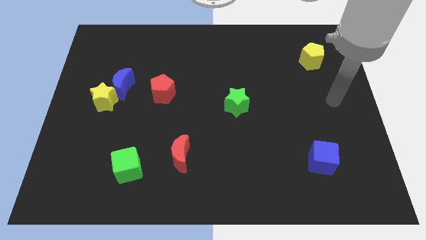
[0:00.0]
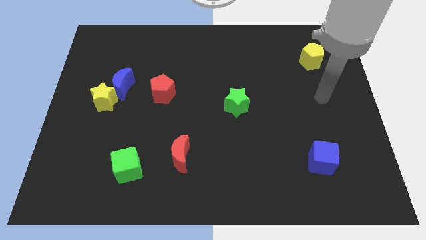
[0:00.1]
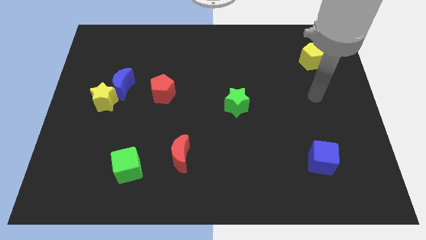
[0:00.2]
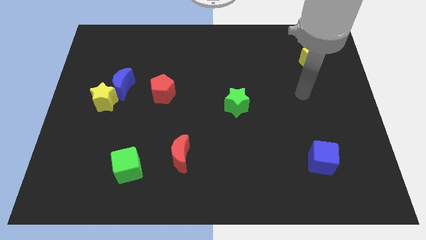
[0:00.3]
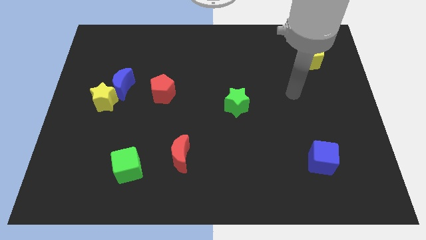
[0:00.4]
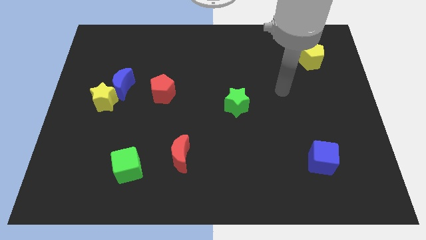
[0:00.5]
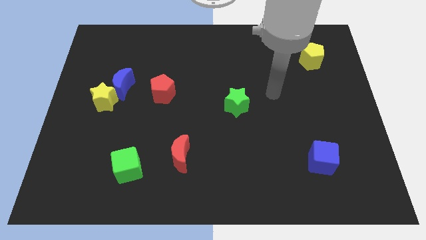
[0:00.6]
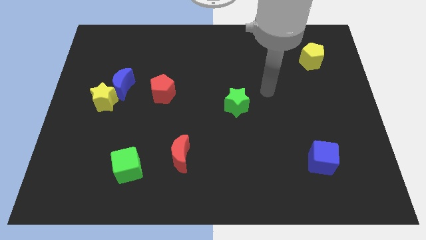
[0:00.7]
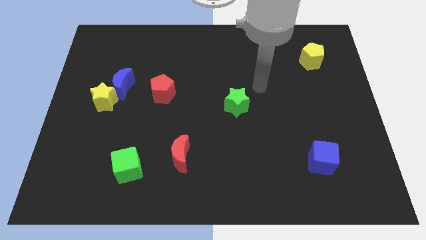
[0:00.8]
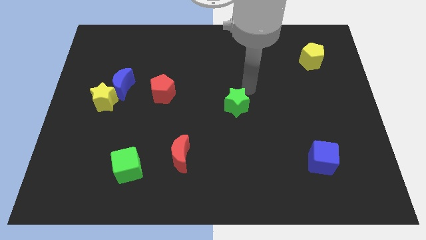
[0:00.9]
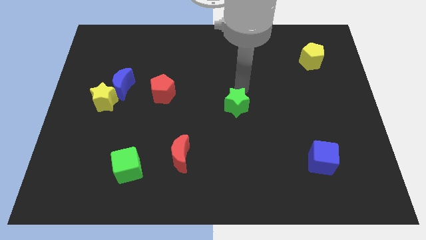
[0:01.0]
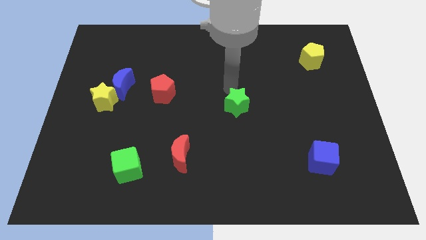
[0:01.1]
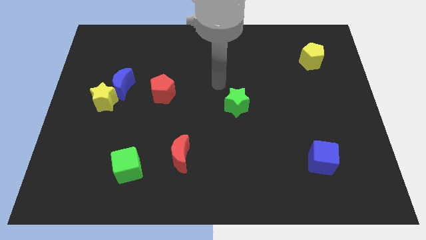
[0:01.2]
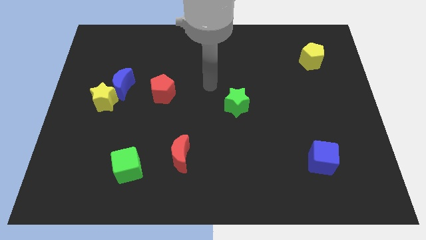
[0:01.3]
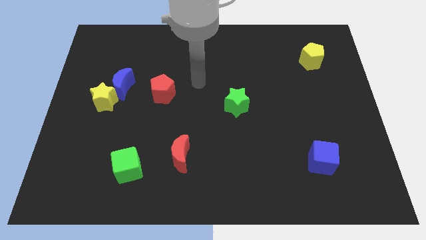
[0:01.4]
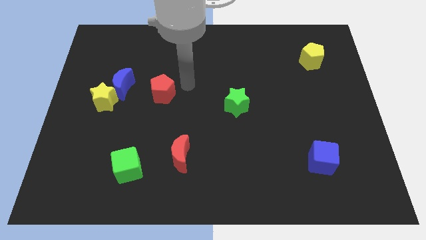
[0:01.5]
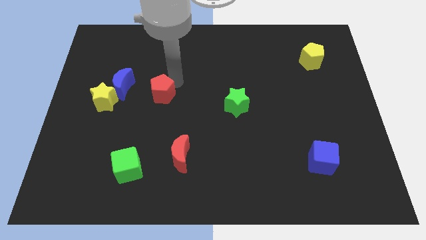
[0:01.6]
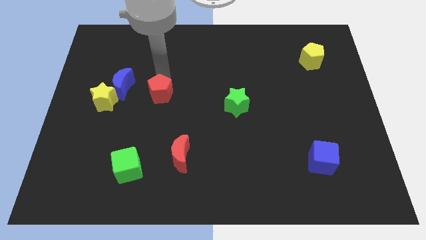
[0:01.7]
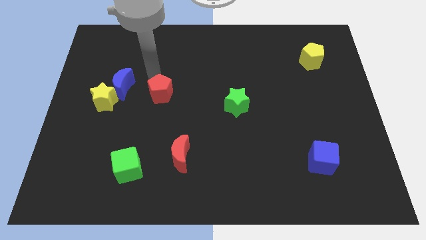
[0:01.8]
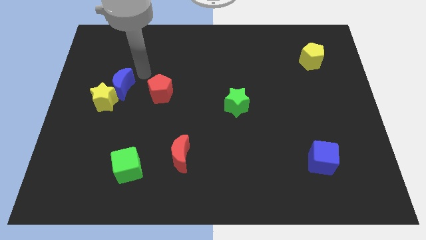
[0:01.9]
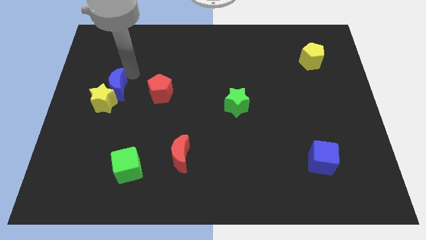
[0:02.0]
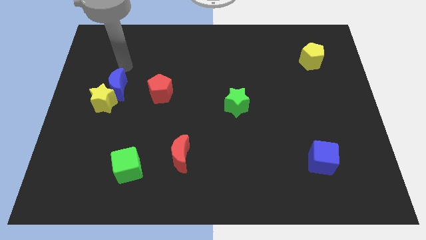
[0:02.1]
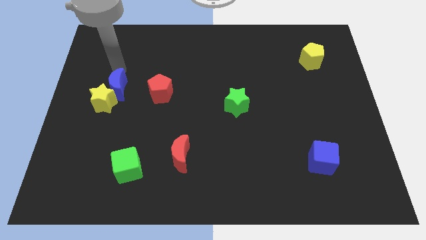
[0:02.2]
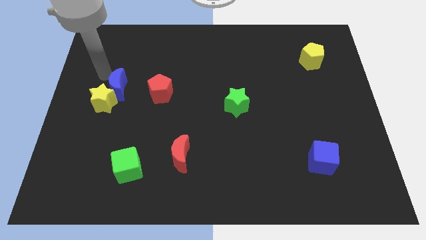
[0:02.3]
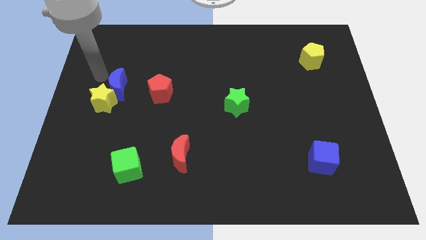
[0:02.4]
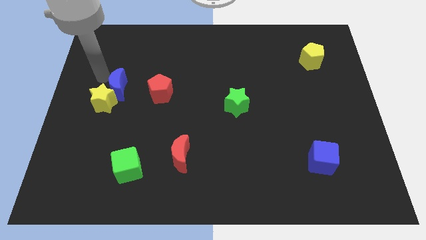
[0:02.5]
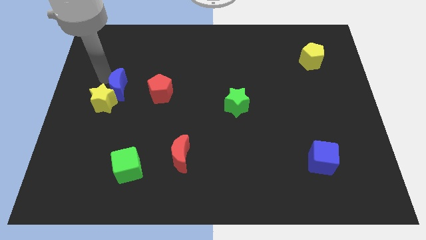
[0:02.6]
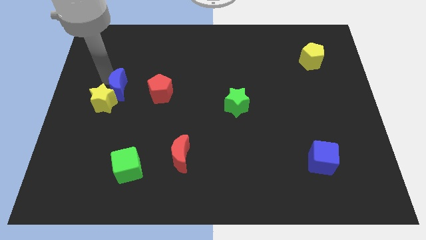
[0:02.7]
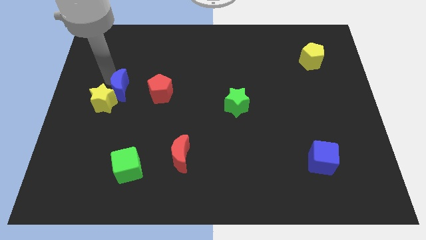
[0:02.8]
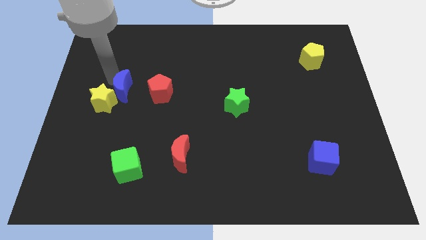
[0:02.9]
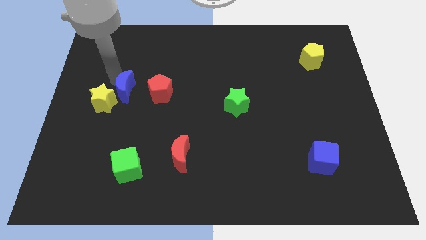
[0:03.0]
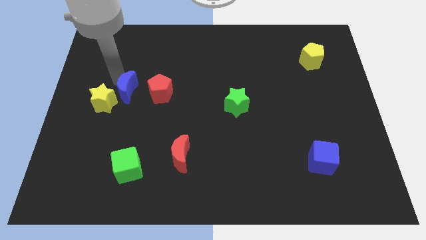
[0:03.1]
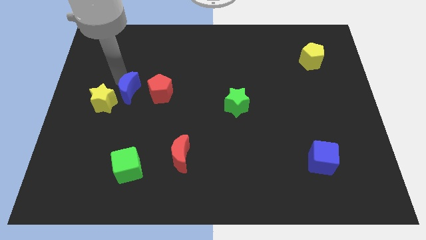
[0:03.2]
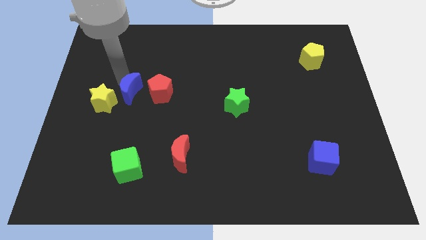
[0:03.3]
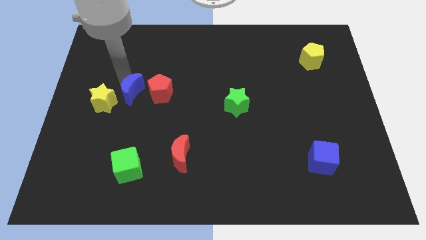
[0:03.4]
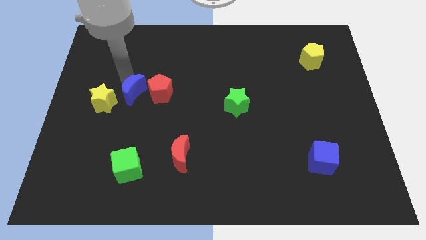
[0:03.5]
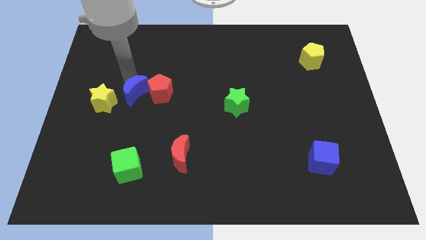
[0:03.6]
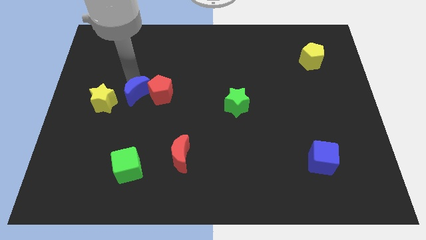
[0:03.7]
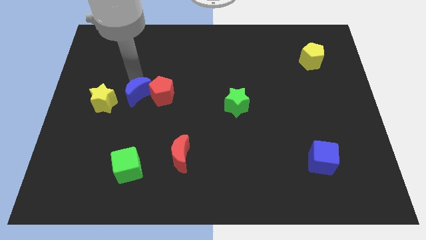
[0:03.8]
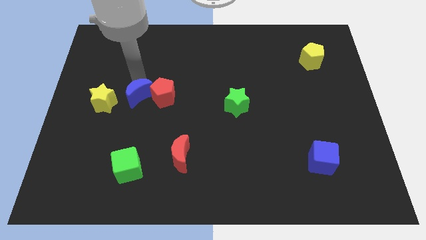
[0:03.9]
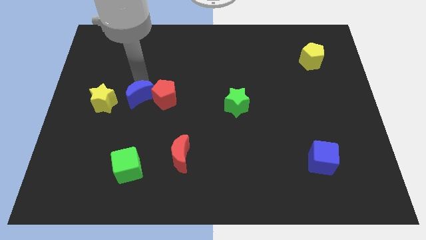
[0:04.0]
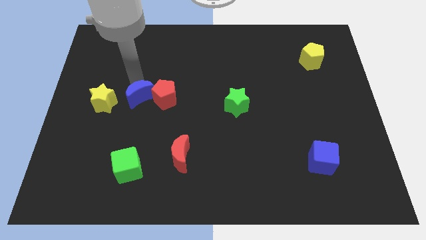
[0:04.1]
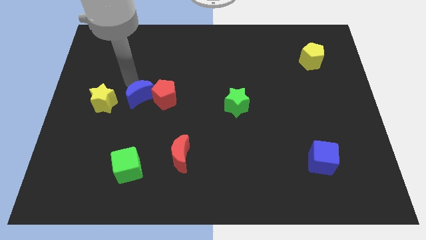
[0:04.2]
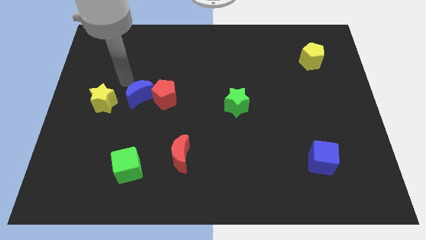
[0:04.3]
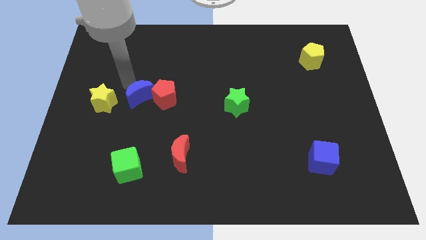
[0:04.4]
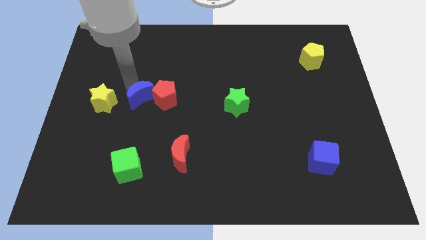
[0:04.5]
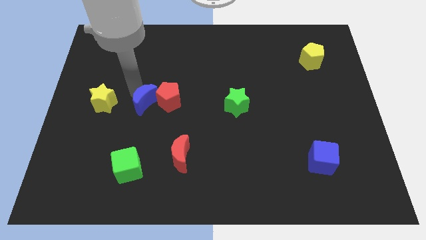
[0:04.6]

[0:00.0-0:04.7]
slide the blue moon downwards and to the right diagonally a little bit

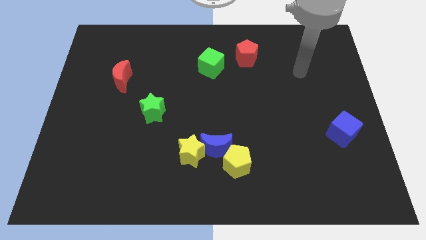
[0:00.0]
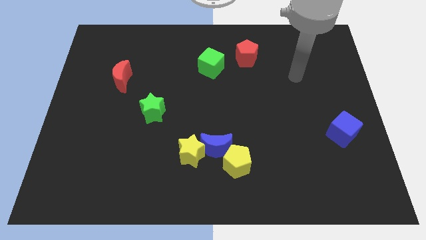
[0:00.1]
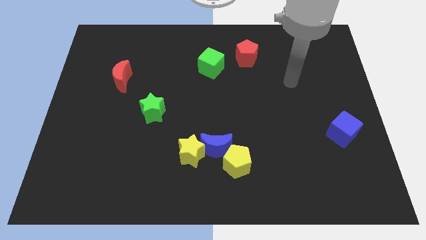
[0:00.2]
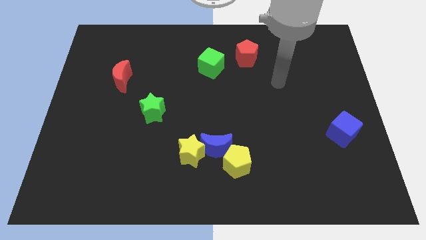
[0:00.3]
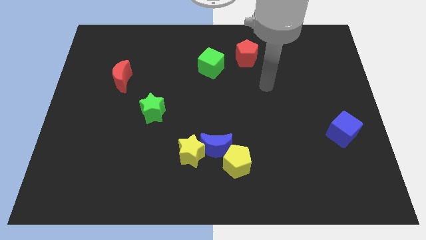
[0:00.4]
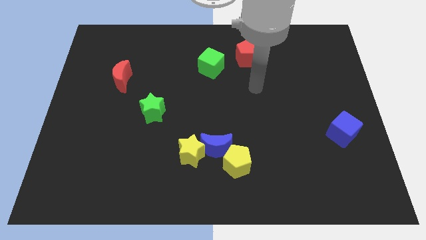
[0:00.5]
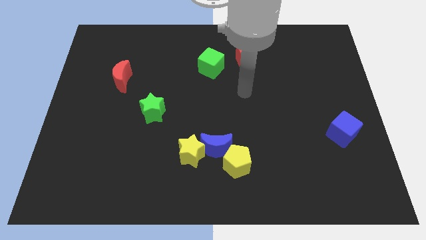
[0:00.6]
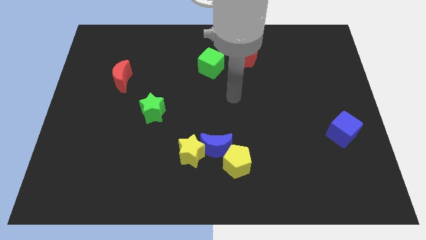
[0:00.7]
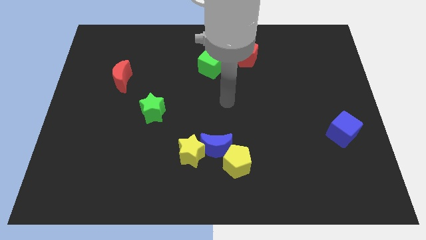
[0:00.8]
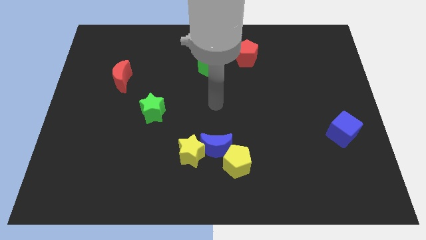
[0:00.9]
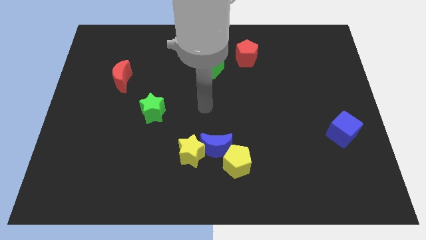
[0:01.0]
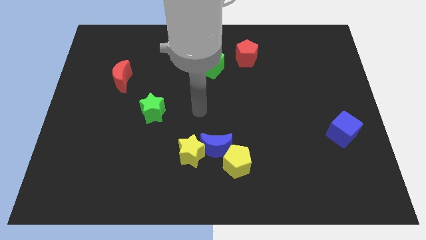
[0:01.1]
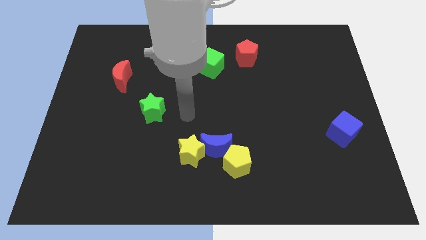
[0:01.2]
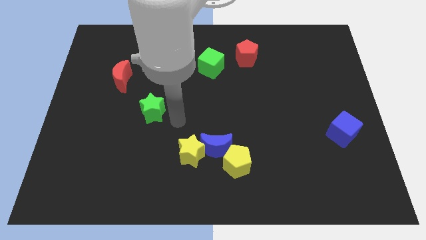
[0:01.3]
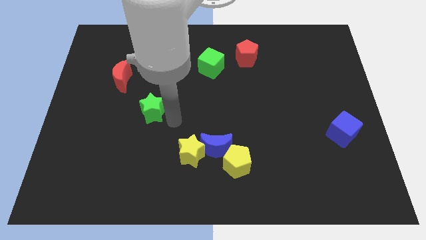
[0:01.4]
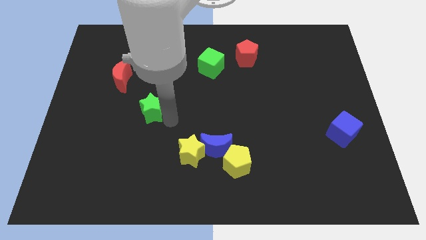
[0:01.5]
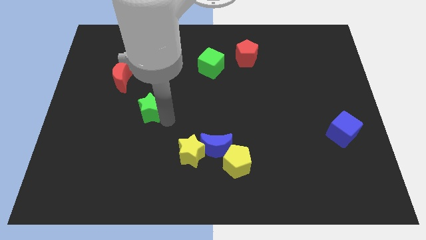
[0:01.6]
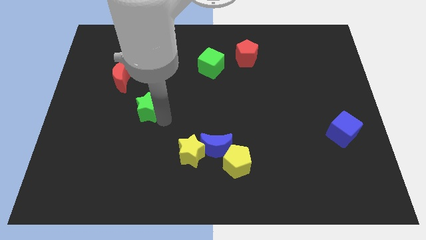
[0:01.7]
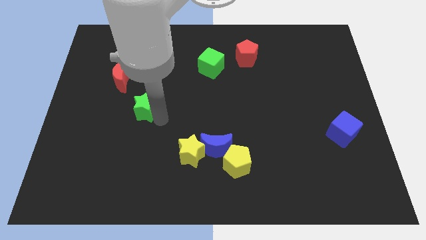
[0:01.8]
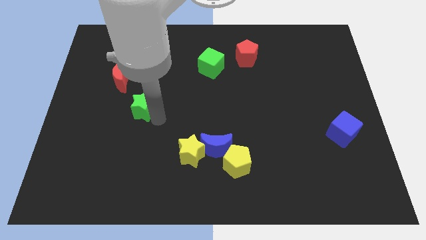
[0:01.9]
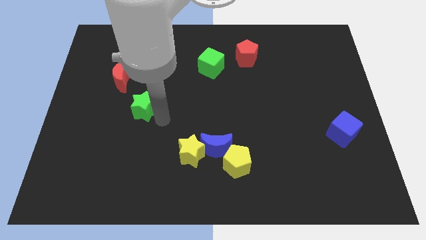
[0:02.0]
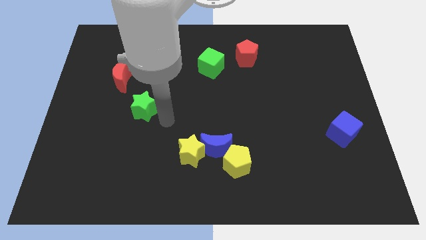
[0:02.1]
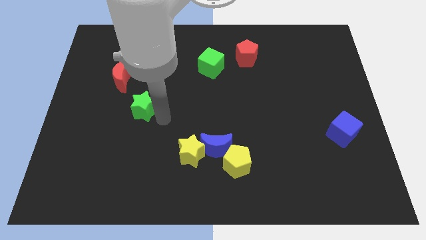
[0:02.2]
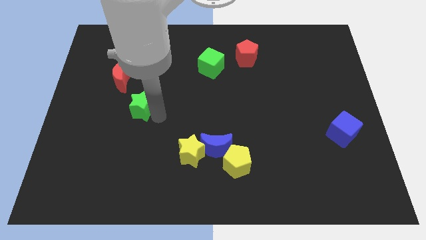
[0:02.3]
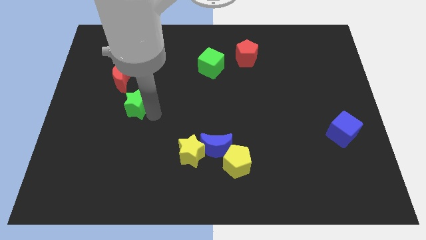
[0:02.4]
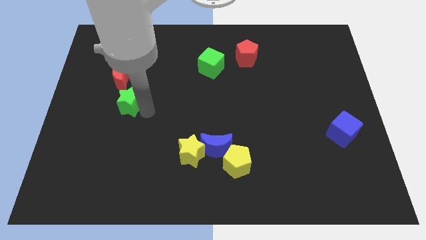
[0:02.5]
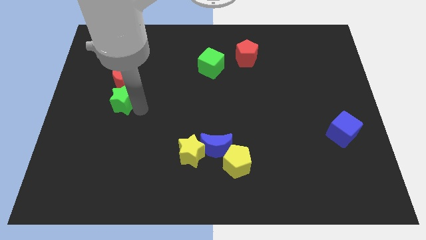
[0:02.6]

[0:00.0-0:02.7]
push the green star diagonally upwards and left slightly

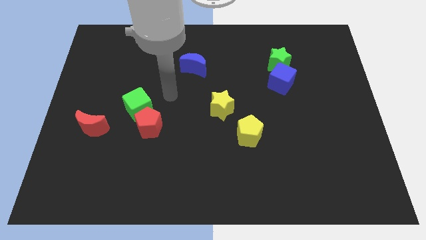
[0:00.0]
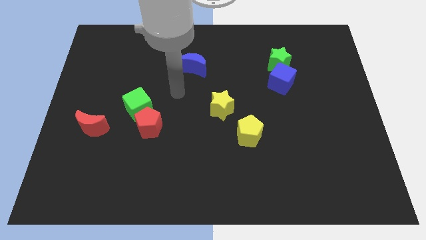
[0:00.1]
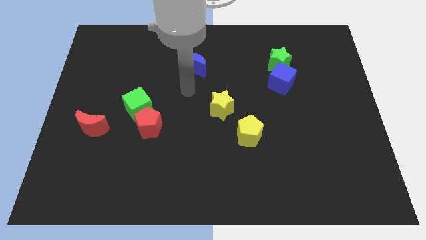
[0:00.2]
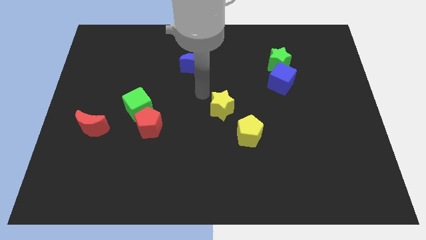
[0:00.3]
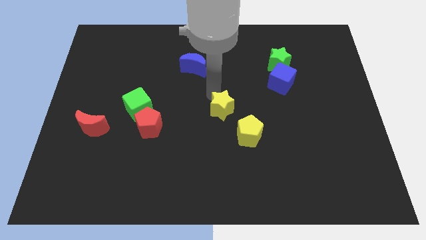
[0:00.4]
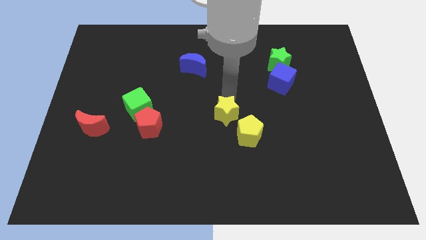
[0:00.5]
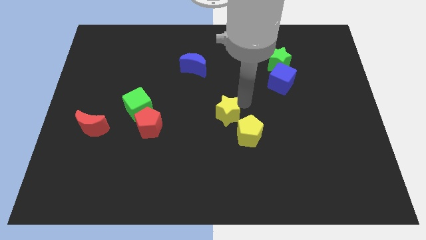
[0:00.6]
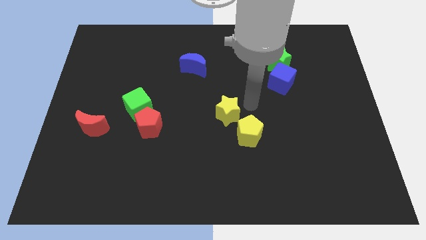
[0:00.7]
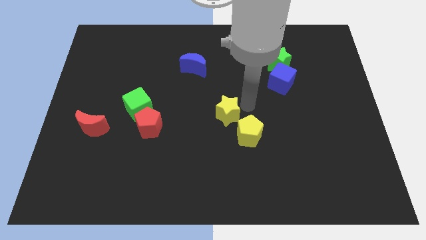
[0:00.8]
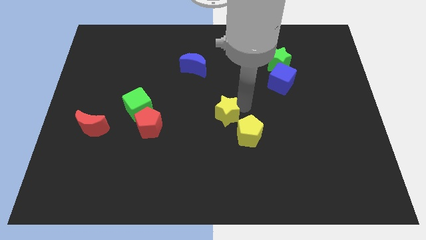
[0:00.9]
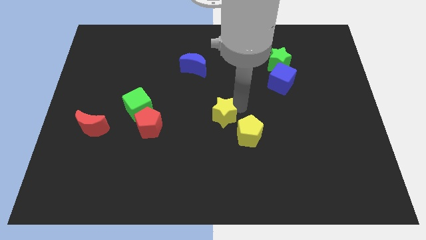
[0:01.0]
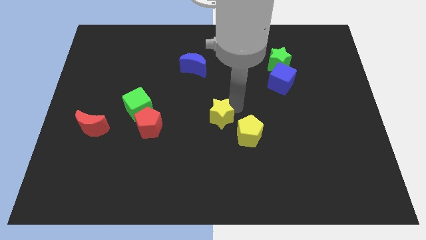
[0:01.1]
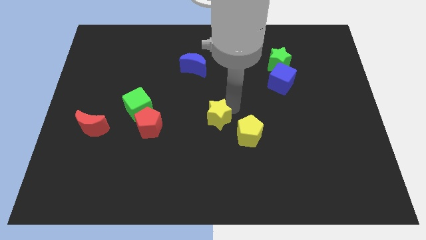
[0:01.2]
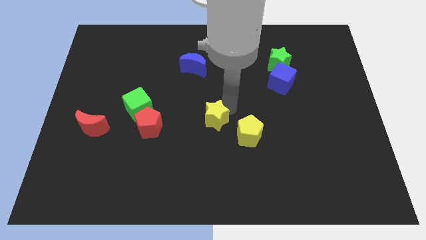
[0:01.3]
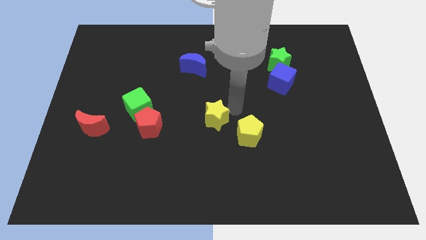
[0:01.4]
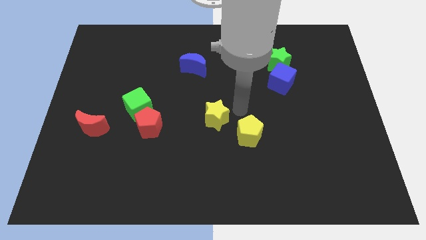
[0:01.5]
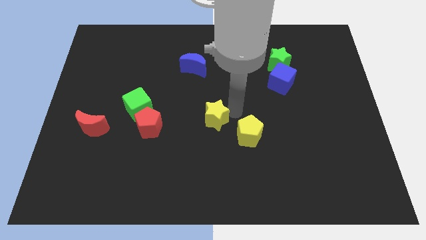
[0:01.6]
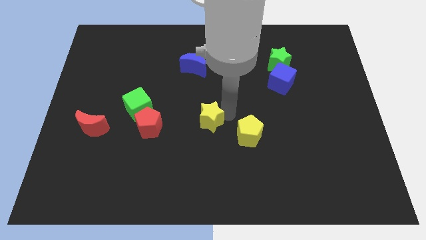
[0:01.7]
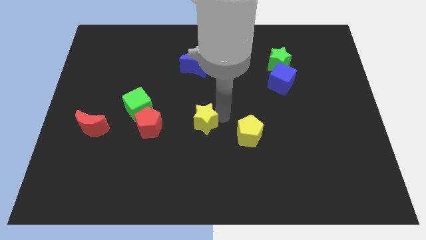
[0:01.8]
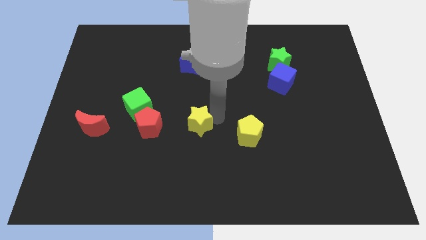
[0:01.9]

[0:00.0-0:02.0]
move the yellow star somewhat downwards and left diagonally
